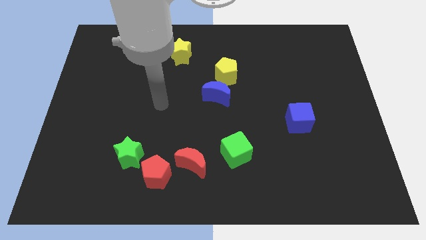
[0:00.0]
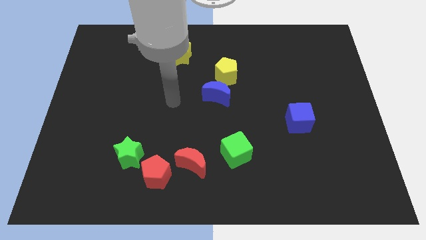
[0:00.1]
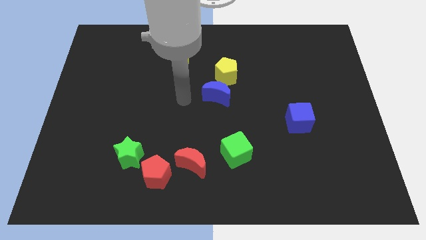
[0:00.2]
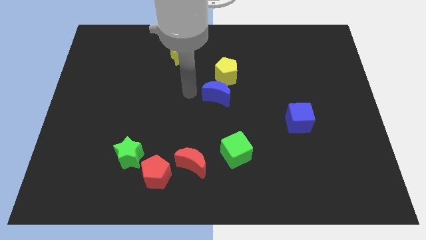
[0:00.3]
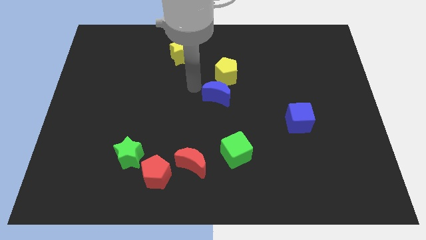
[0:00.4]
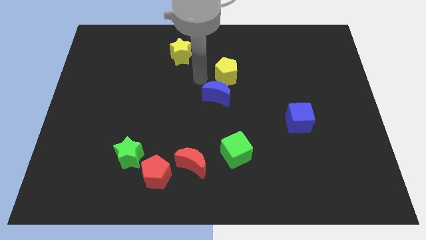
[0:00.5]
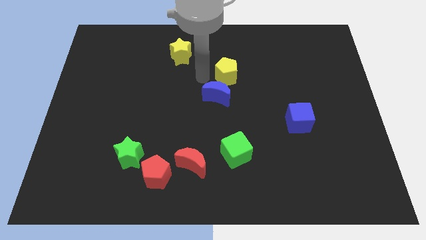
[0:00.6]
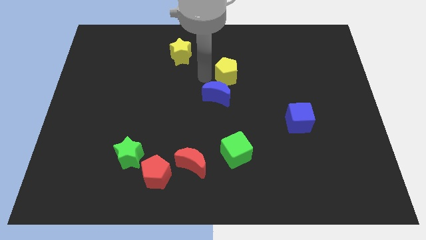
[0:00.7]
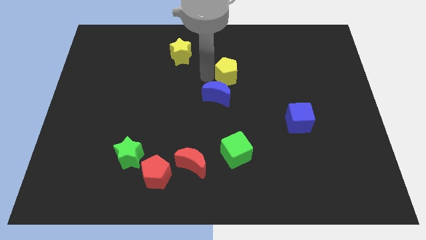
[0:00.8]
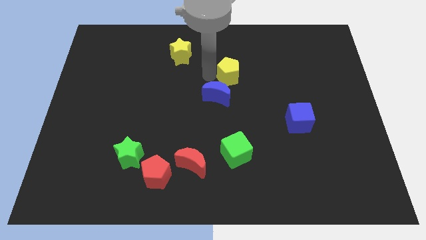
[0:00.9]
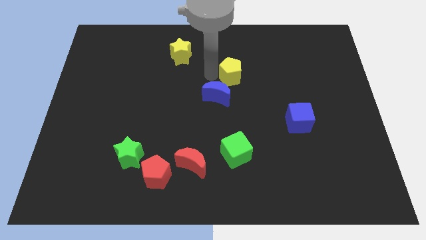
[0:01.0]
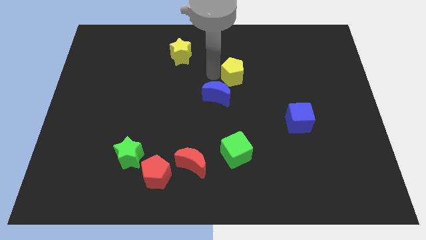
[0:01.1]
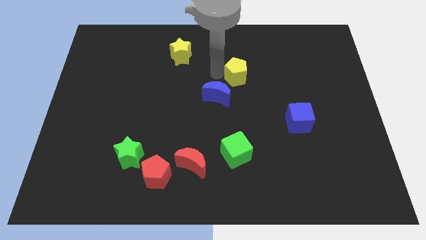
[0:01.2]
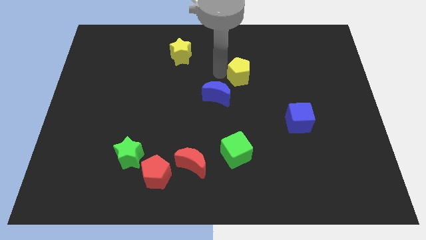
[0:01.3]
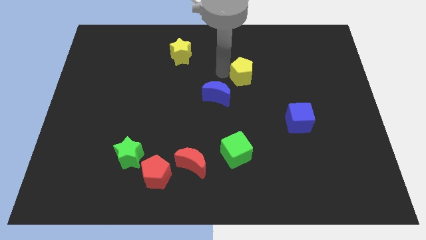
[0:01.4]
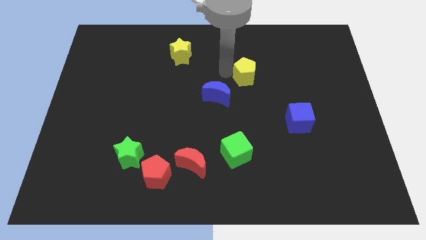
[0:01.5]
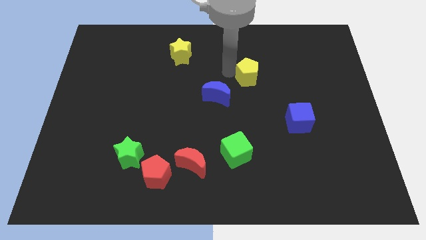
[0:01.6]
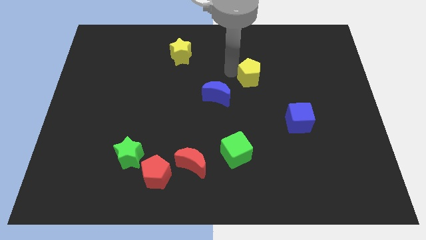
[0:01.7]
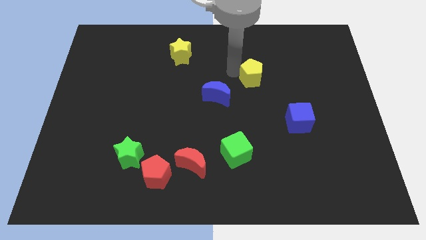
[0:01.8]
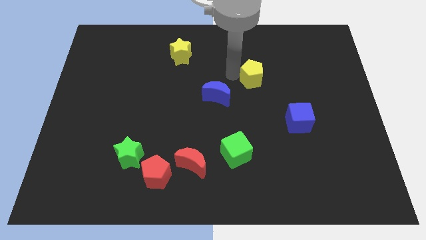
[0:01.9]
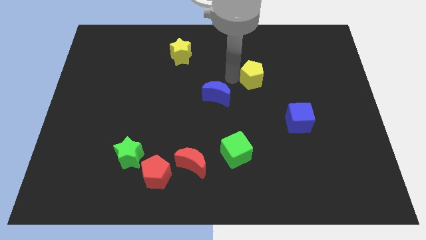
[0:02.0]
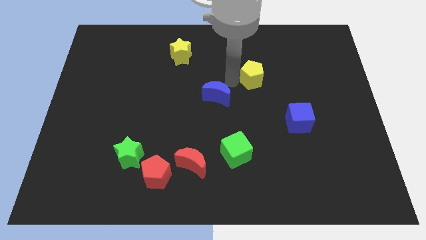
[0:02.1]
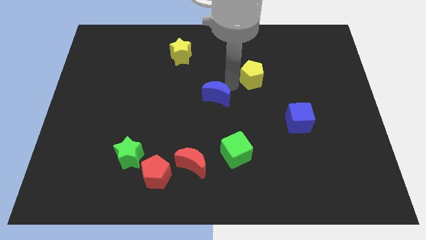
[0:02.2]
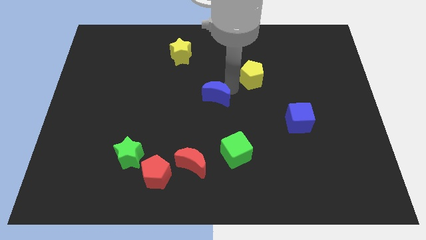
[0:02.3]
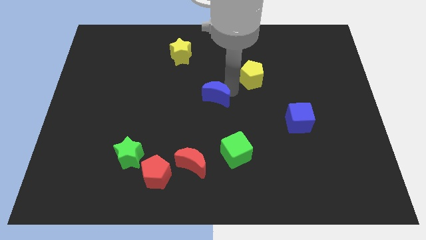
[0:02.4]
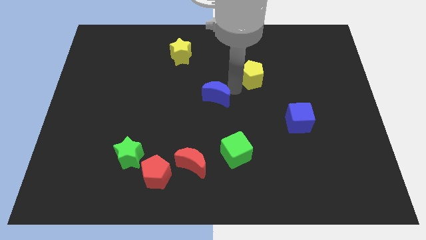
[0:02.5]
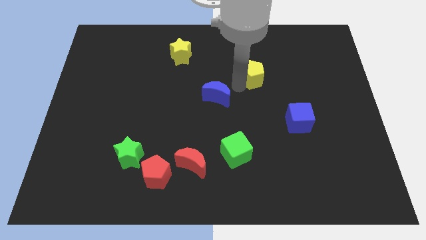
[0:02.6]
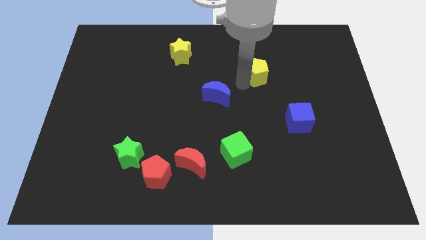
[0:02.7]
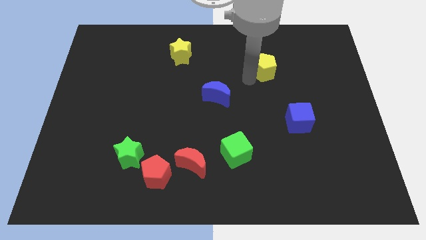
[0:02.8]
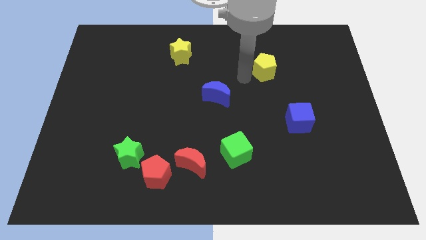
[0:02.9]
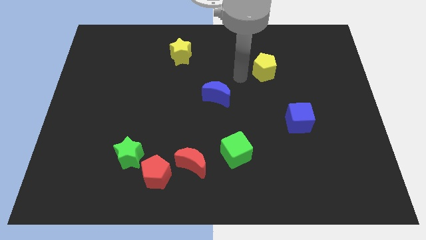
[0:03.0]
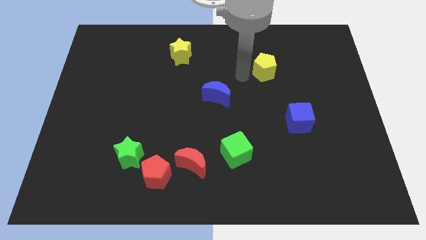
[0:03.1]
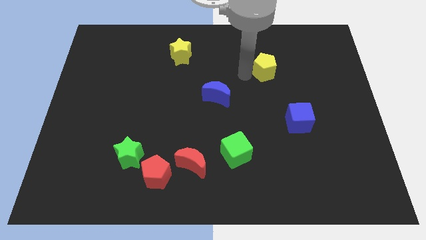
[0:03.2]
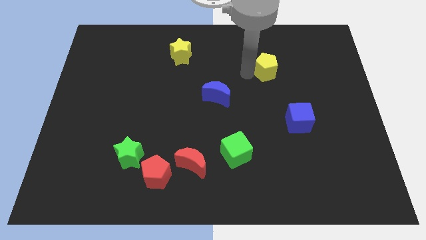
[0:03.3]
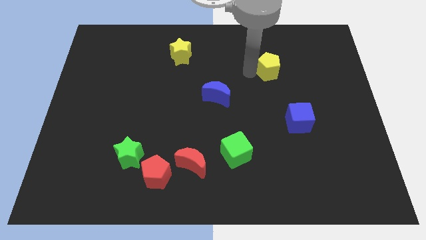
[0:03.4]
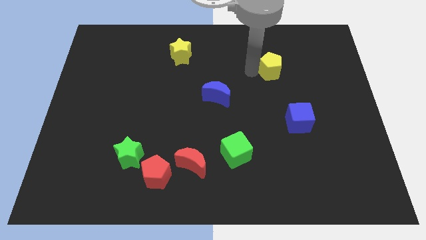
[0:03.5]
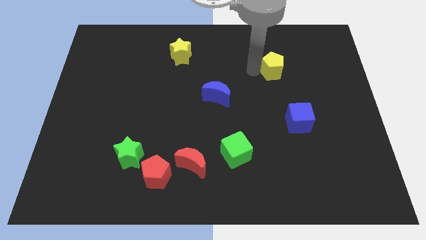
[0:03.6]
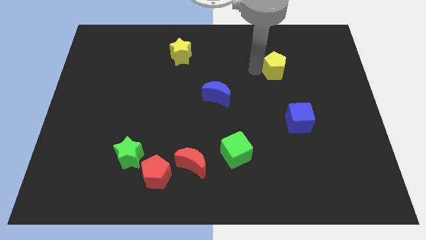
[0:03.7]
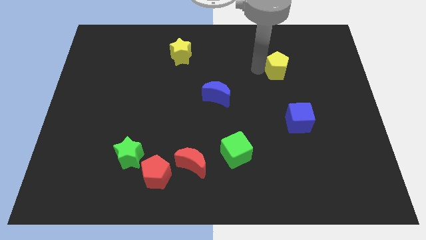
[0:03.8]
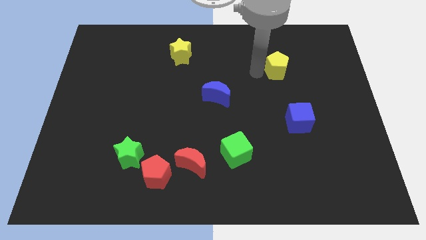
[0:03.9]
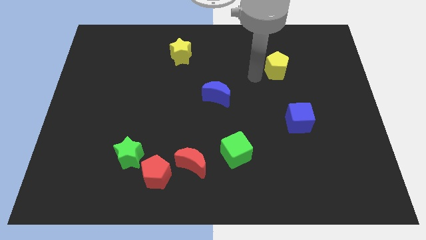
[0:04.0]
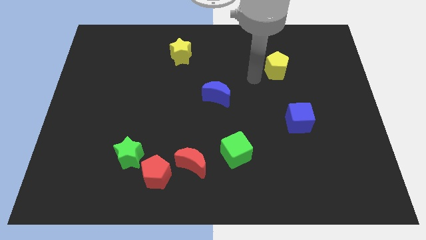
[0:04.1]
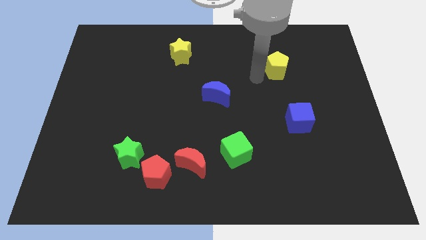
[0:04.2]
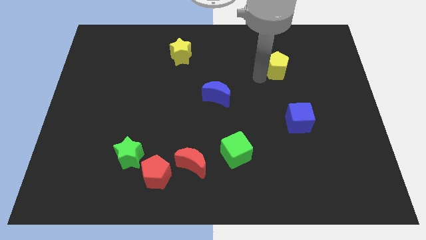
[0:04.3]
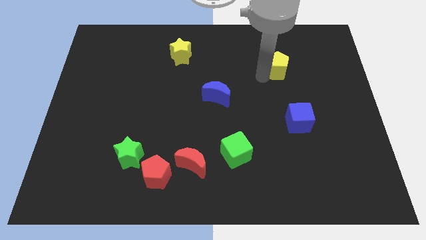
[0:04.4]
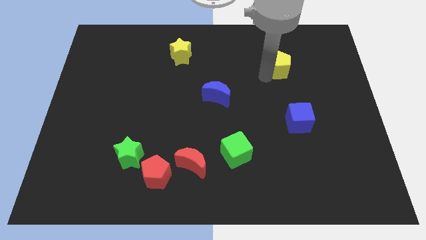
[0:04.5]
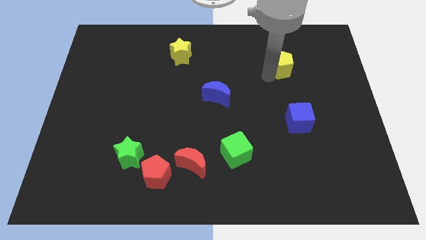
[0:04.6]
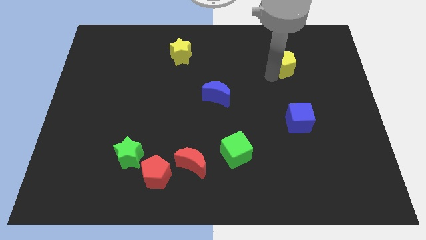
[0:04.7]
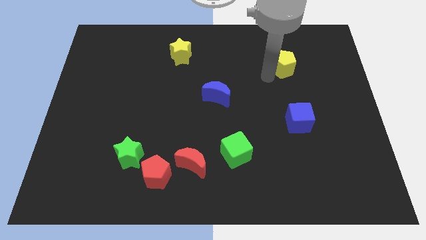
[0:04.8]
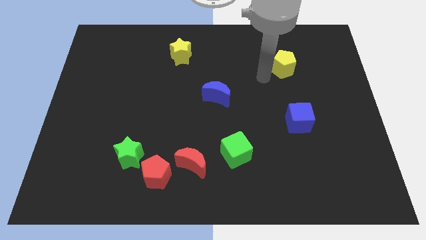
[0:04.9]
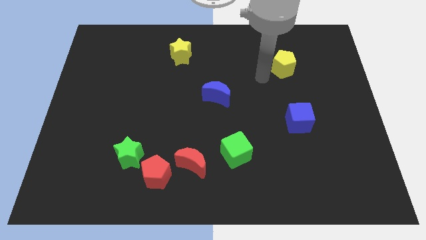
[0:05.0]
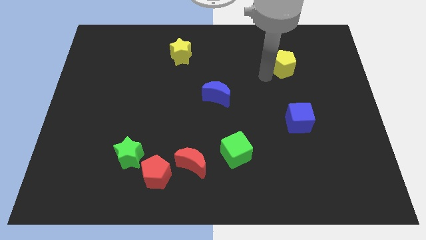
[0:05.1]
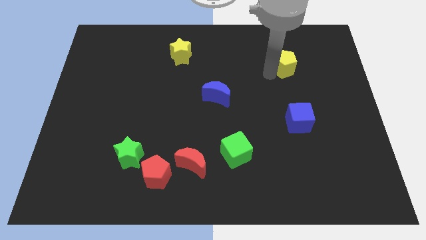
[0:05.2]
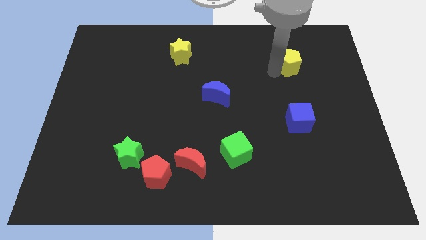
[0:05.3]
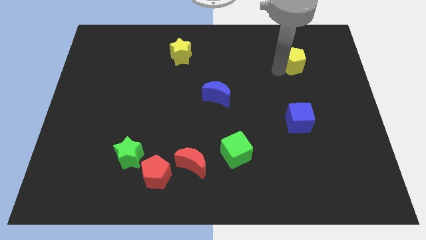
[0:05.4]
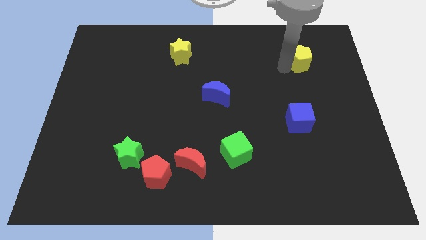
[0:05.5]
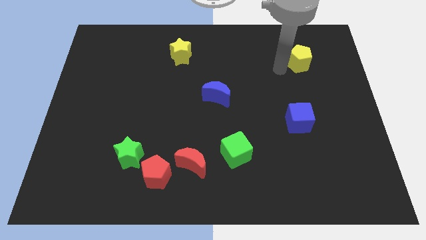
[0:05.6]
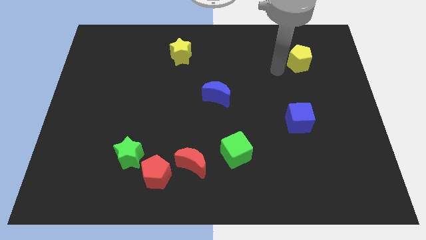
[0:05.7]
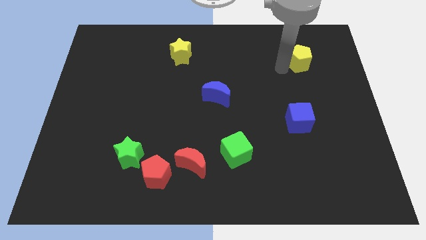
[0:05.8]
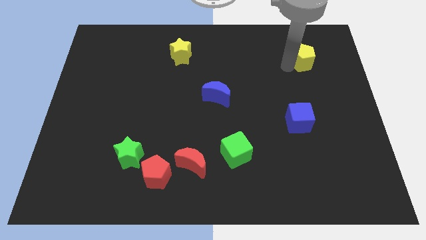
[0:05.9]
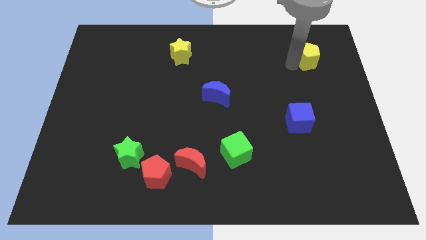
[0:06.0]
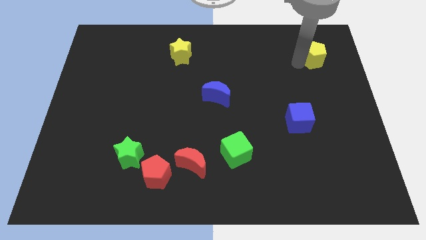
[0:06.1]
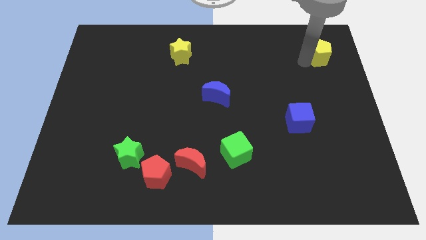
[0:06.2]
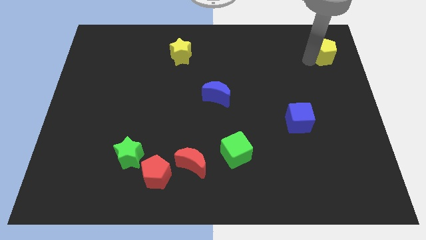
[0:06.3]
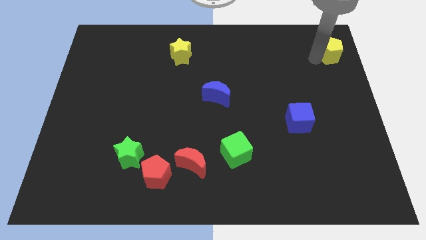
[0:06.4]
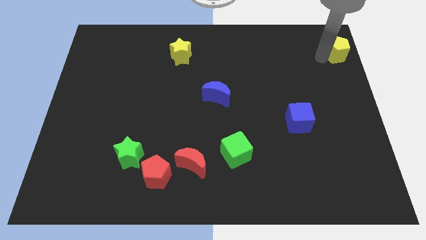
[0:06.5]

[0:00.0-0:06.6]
slide the yellow pentagon to the upper right corner
